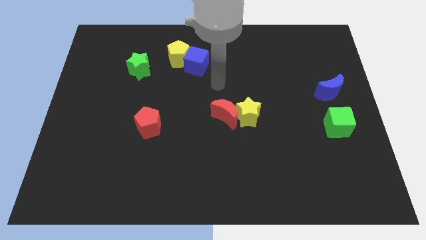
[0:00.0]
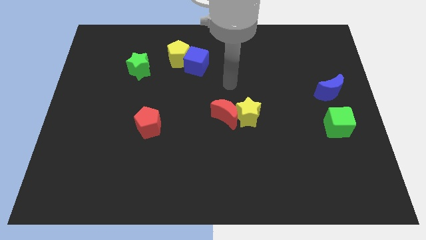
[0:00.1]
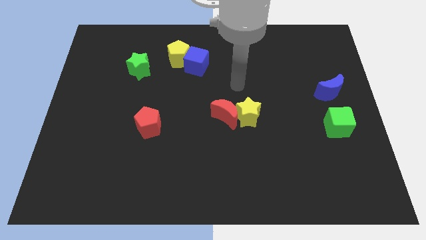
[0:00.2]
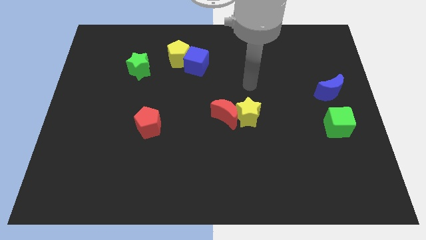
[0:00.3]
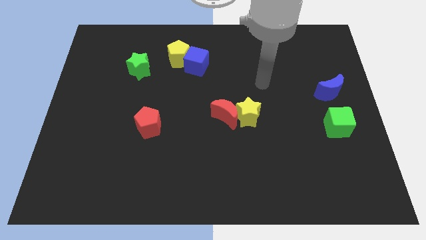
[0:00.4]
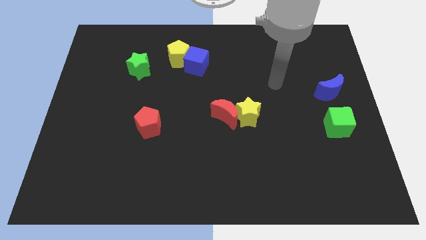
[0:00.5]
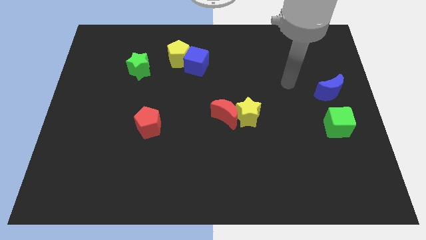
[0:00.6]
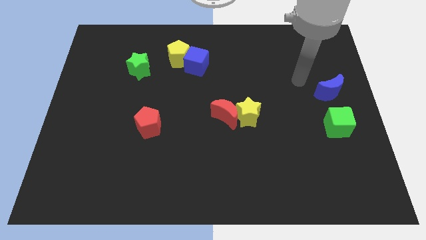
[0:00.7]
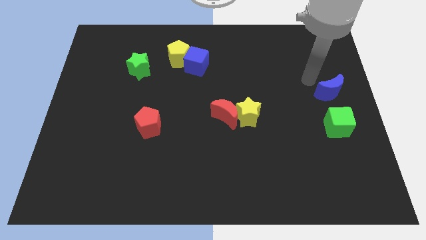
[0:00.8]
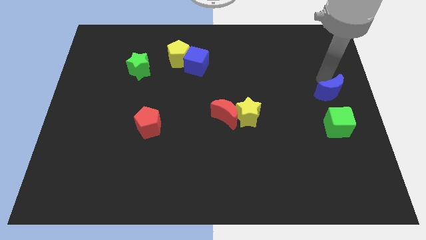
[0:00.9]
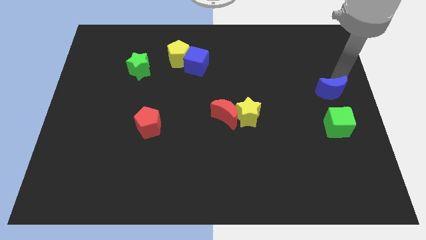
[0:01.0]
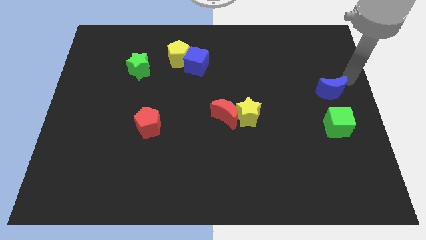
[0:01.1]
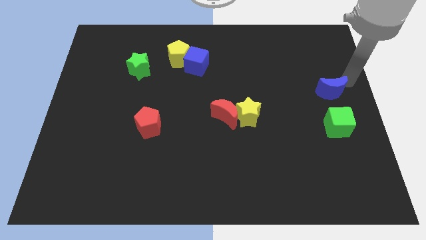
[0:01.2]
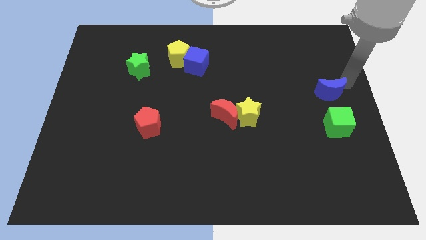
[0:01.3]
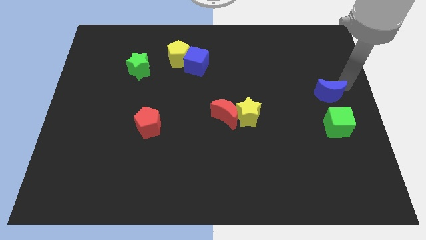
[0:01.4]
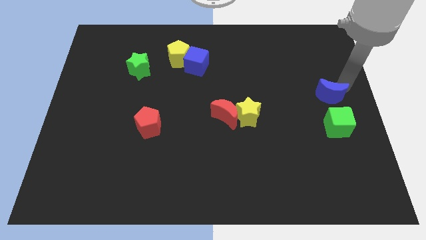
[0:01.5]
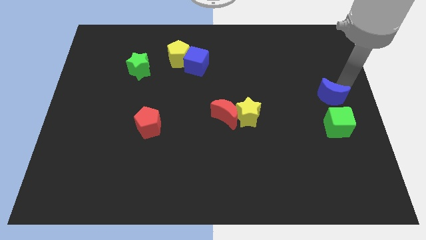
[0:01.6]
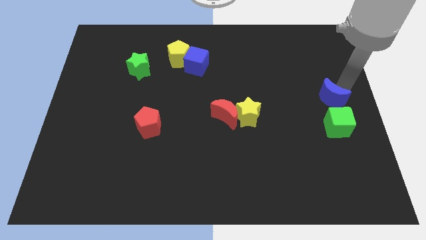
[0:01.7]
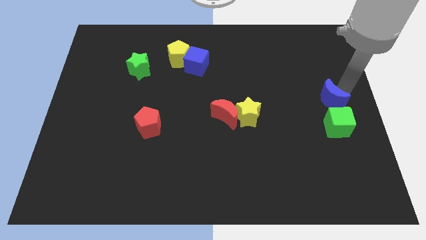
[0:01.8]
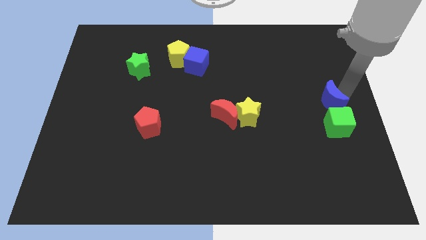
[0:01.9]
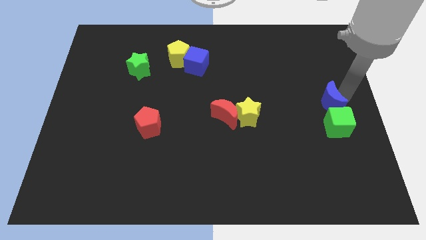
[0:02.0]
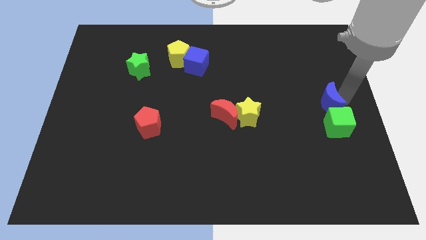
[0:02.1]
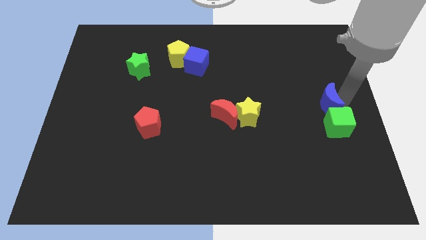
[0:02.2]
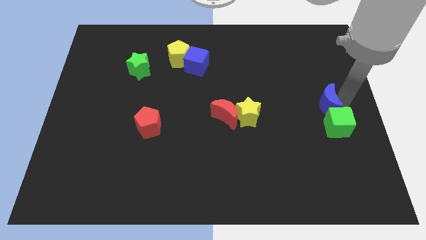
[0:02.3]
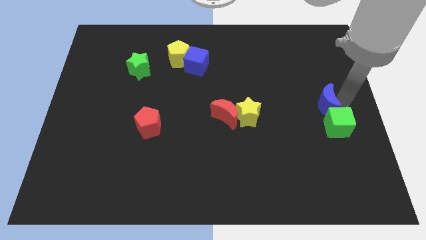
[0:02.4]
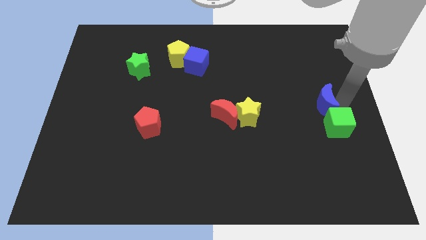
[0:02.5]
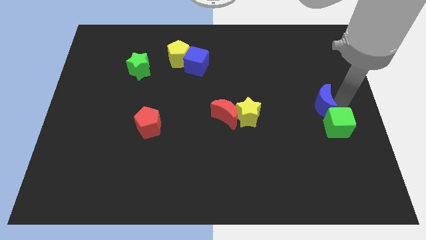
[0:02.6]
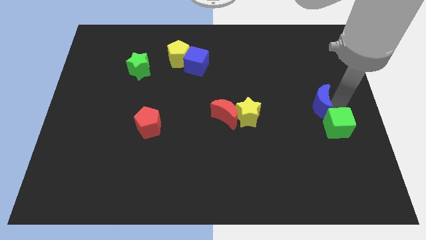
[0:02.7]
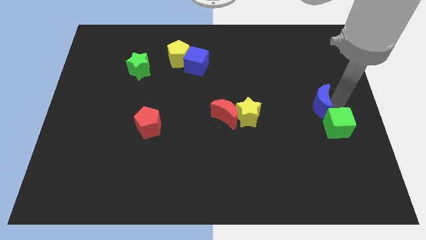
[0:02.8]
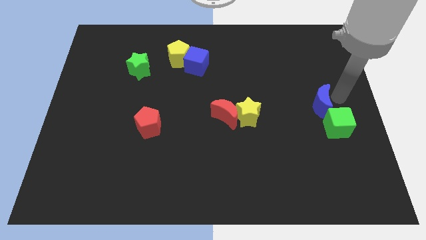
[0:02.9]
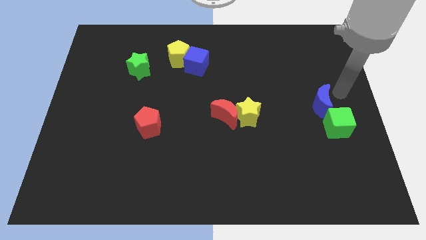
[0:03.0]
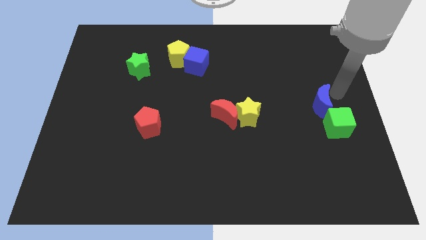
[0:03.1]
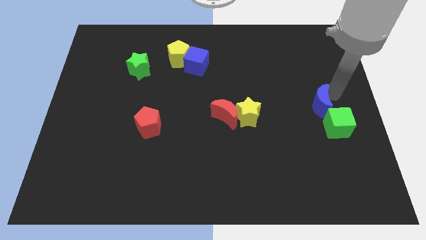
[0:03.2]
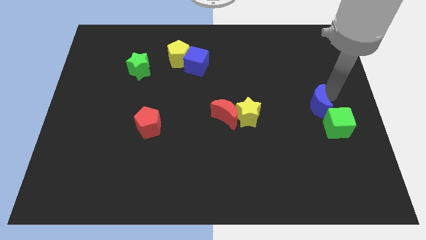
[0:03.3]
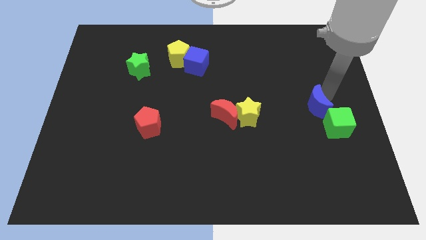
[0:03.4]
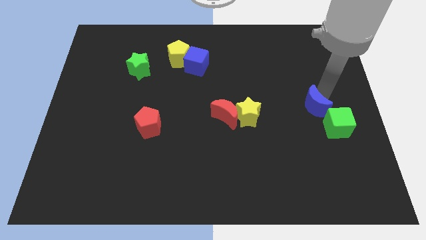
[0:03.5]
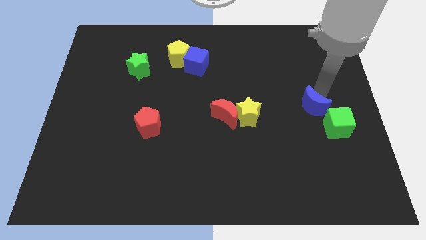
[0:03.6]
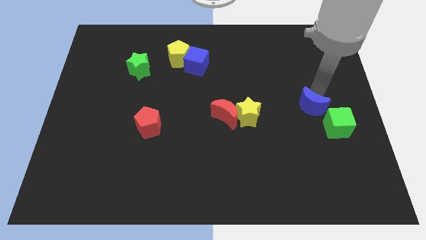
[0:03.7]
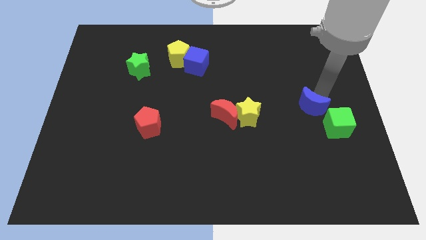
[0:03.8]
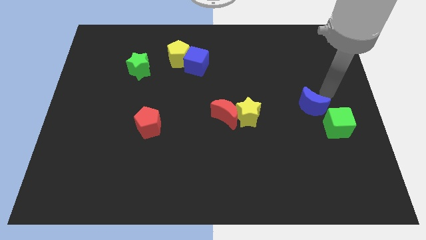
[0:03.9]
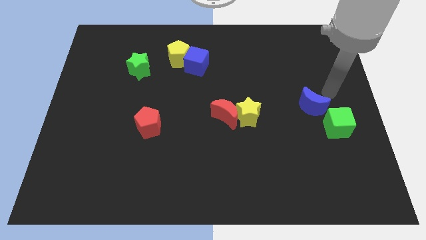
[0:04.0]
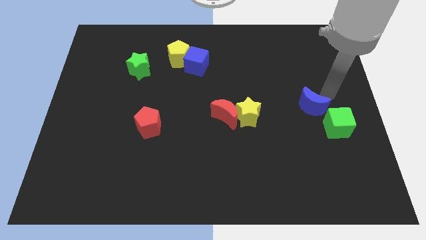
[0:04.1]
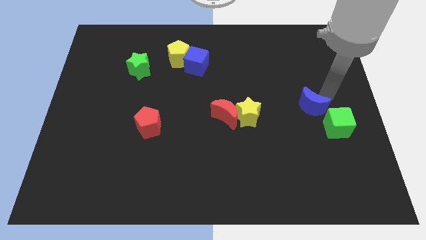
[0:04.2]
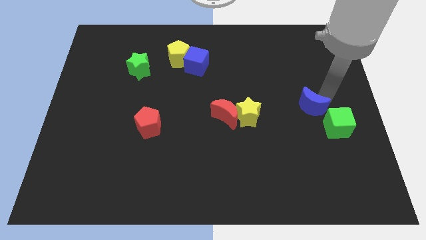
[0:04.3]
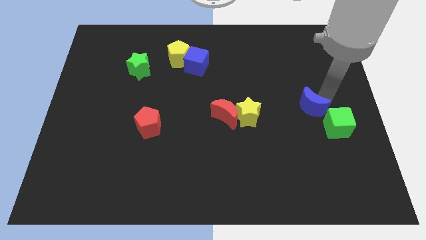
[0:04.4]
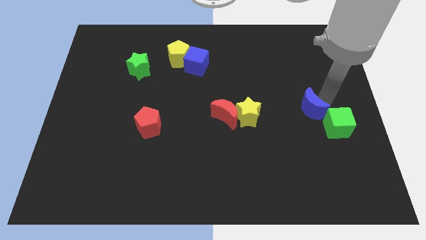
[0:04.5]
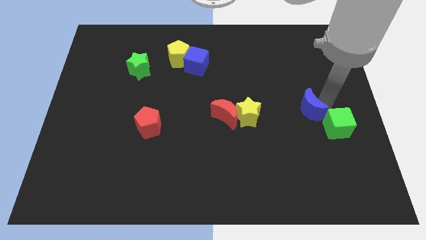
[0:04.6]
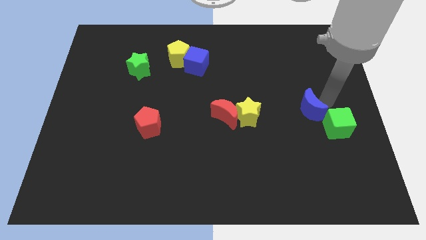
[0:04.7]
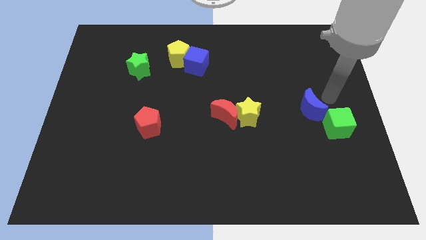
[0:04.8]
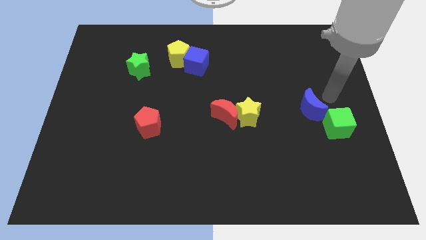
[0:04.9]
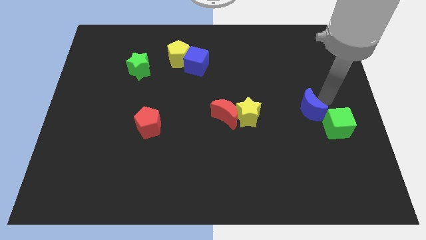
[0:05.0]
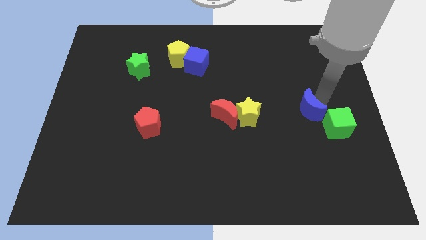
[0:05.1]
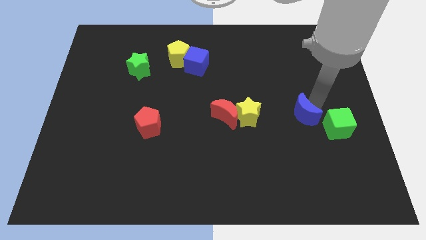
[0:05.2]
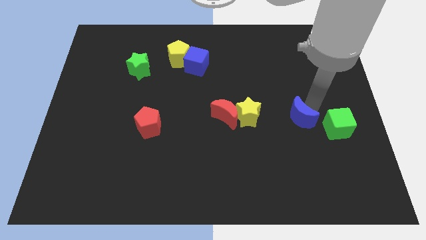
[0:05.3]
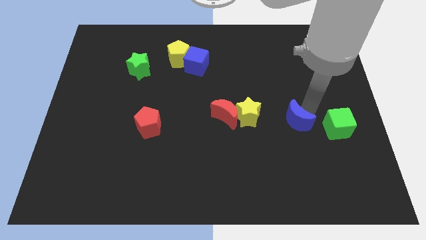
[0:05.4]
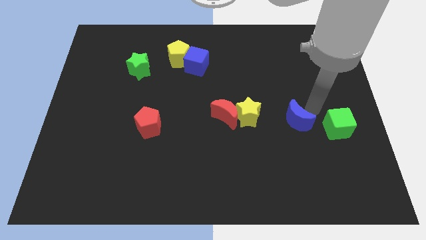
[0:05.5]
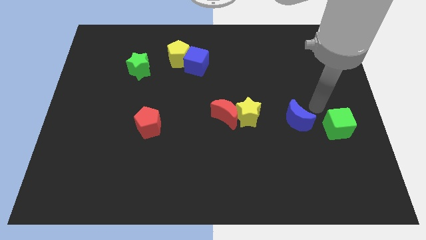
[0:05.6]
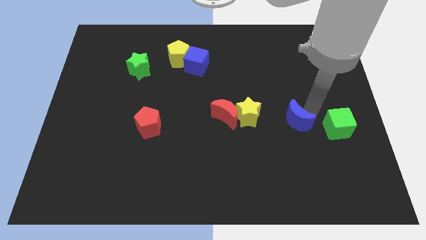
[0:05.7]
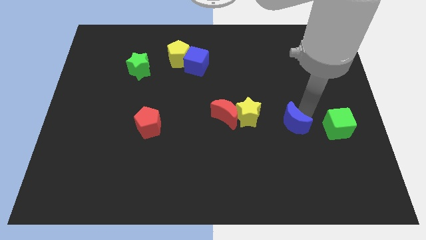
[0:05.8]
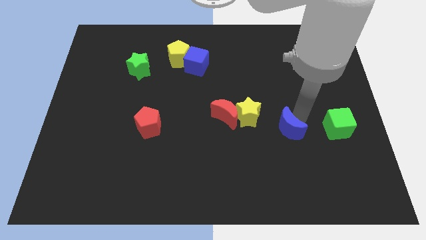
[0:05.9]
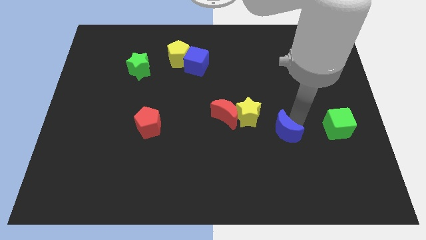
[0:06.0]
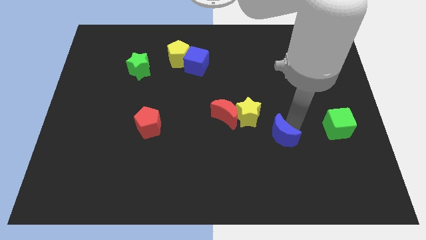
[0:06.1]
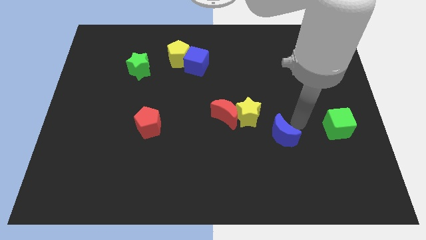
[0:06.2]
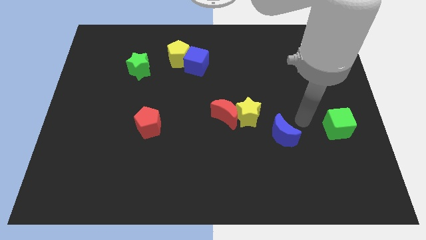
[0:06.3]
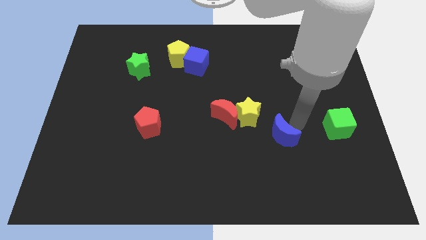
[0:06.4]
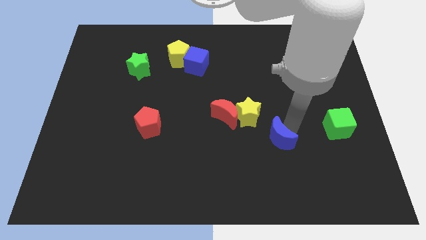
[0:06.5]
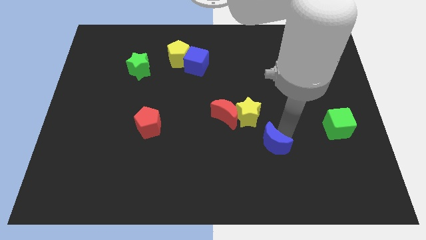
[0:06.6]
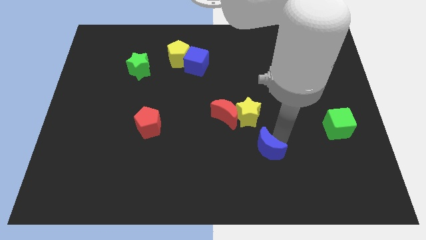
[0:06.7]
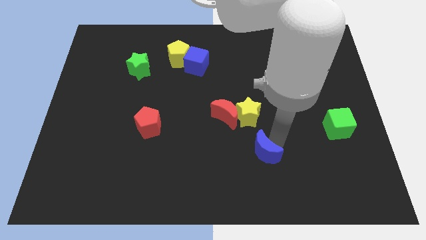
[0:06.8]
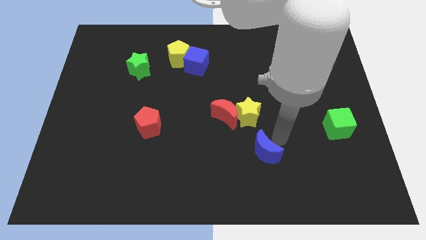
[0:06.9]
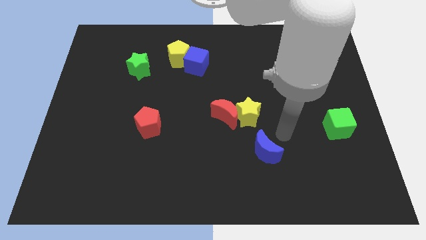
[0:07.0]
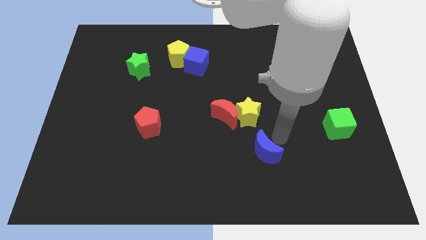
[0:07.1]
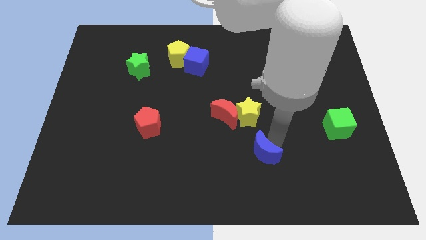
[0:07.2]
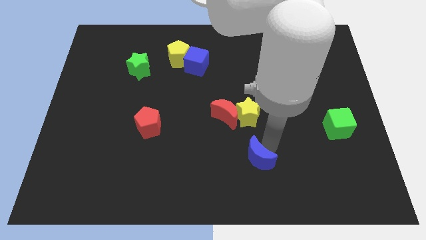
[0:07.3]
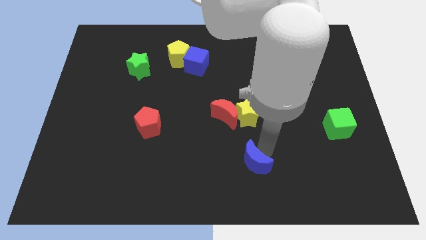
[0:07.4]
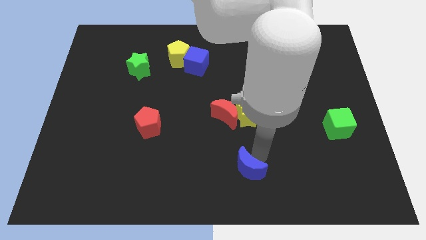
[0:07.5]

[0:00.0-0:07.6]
put the blue moon to the bottom side
